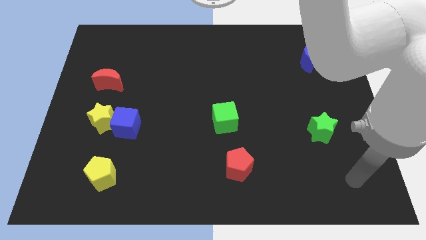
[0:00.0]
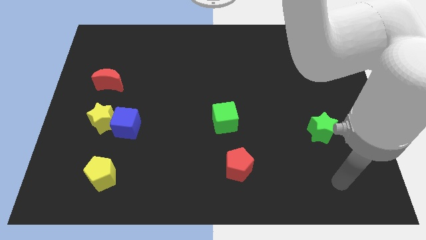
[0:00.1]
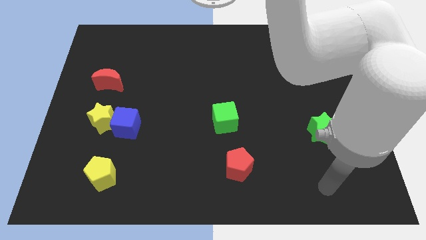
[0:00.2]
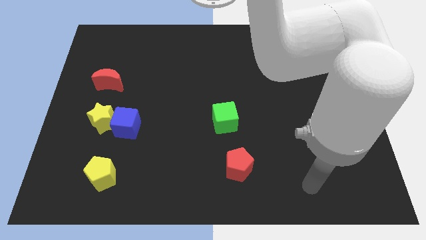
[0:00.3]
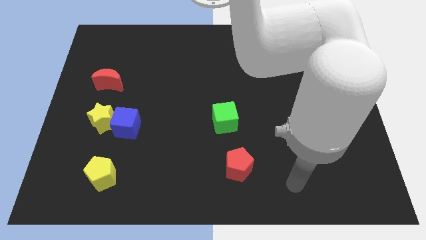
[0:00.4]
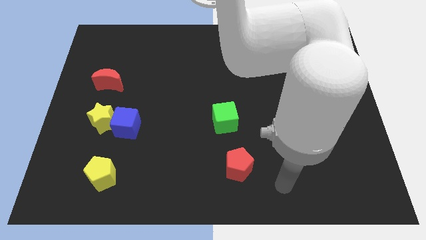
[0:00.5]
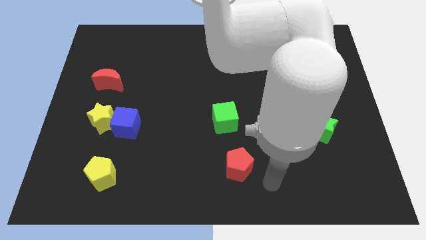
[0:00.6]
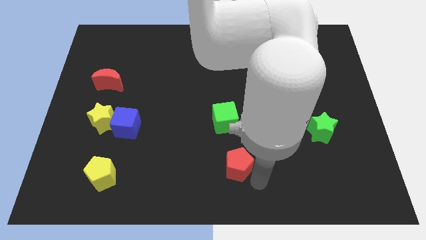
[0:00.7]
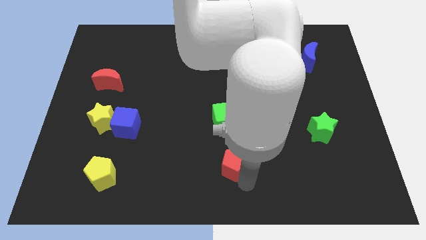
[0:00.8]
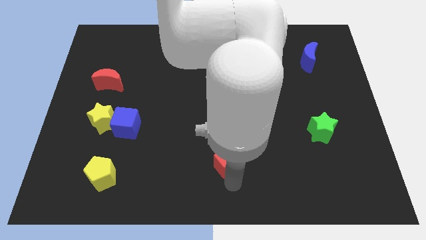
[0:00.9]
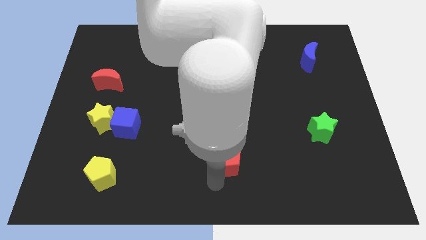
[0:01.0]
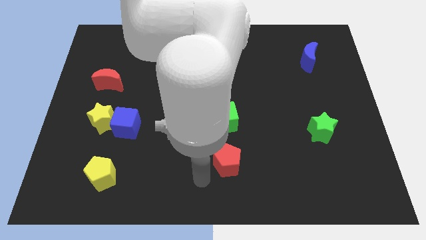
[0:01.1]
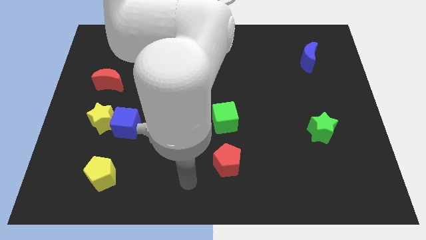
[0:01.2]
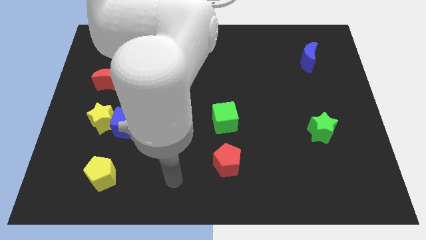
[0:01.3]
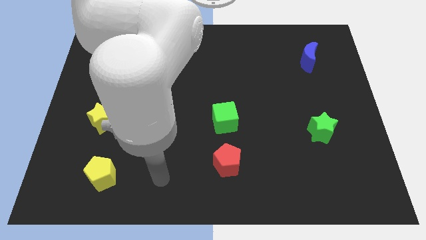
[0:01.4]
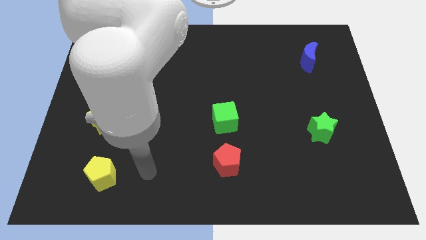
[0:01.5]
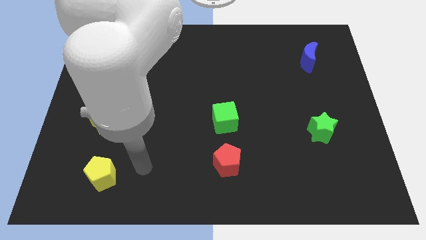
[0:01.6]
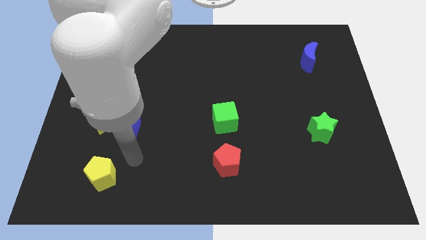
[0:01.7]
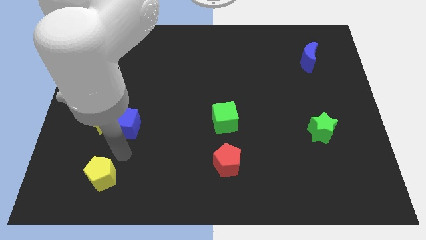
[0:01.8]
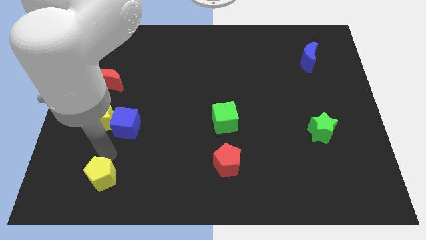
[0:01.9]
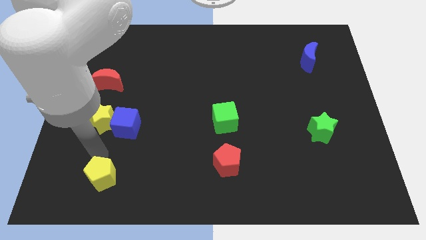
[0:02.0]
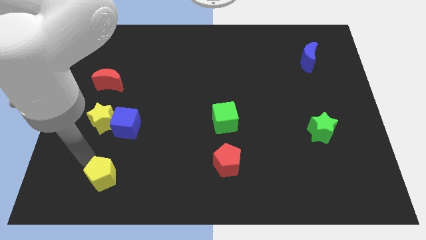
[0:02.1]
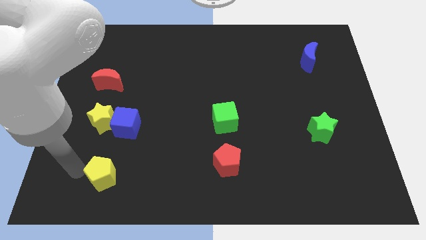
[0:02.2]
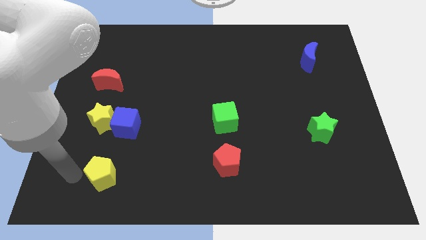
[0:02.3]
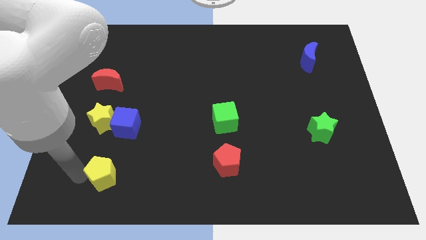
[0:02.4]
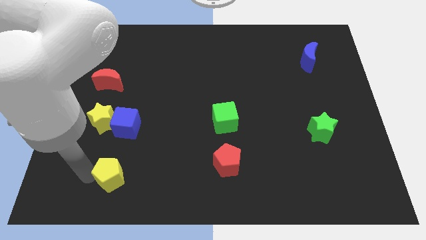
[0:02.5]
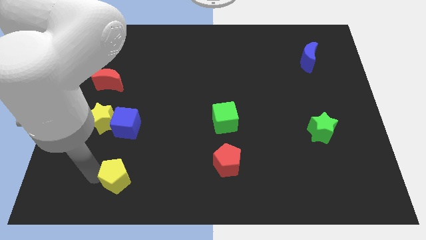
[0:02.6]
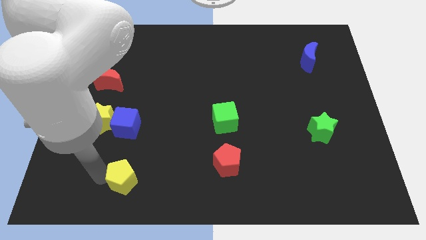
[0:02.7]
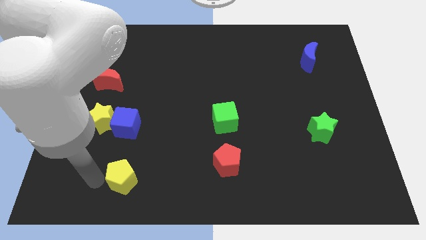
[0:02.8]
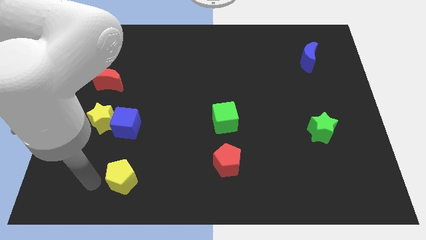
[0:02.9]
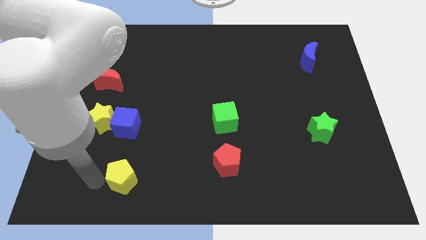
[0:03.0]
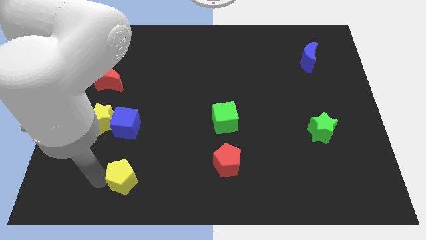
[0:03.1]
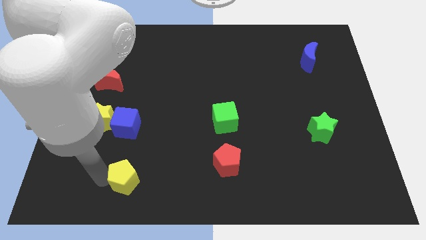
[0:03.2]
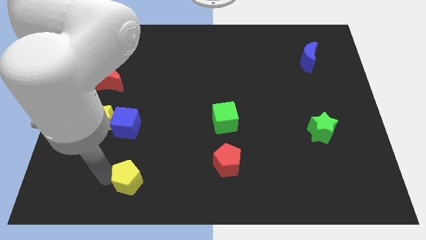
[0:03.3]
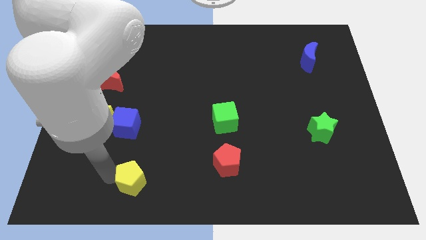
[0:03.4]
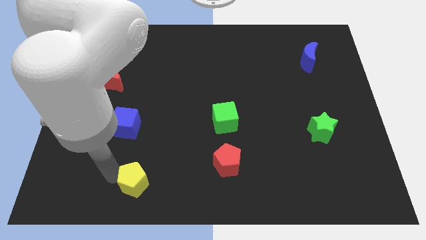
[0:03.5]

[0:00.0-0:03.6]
move the yellow pentagon to the right somewhat

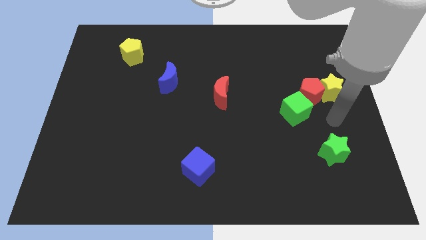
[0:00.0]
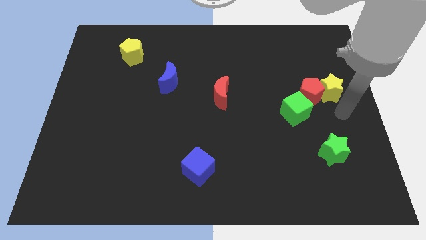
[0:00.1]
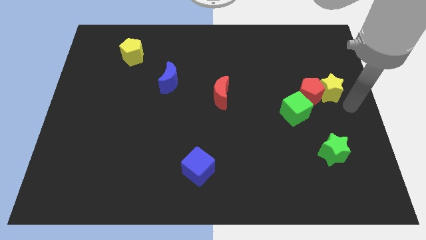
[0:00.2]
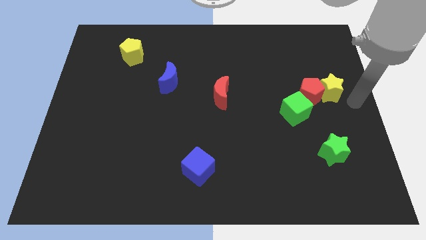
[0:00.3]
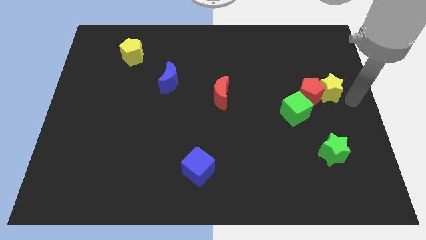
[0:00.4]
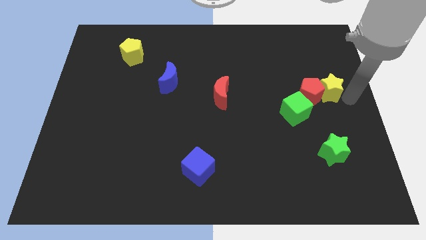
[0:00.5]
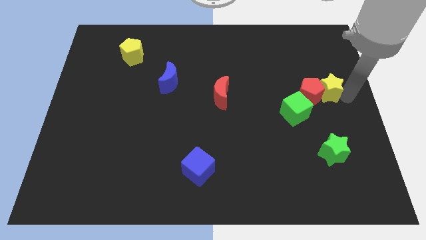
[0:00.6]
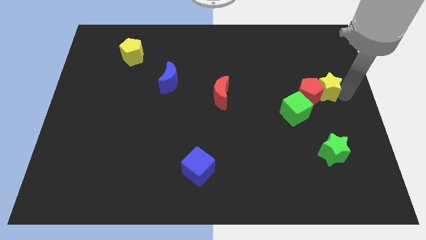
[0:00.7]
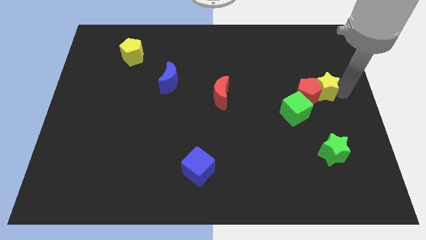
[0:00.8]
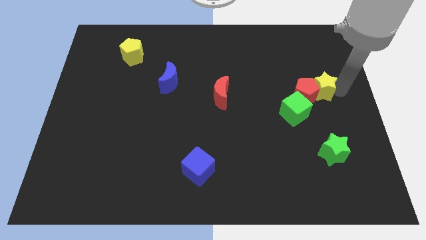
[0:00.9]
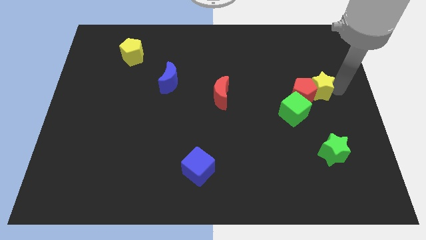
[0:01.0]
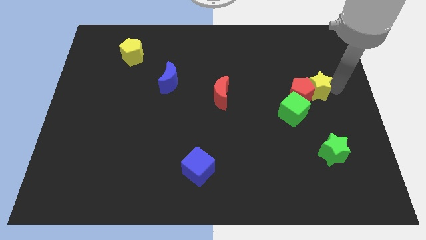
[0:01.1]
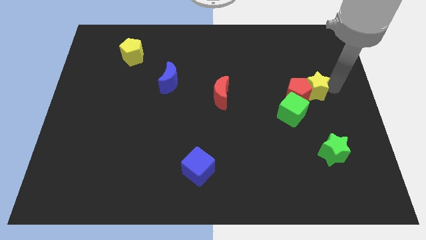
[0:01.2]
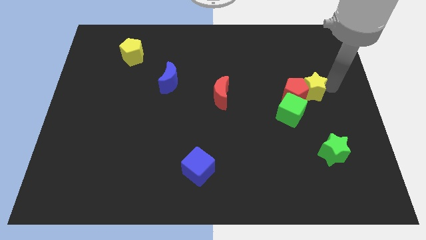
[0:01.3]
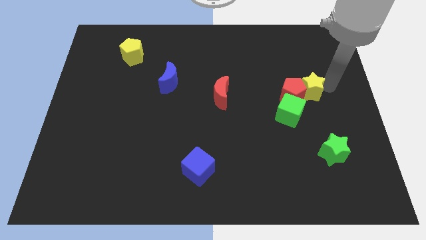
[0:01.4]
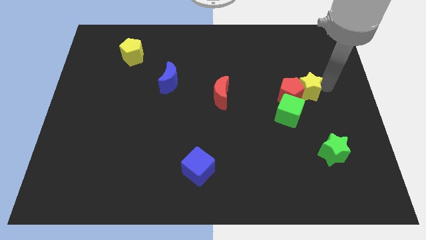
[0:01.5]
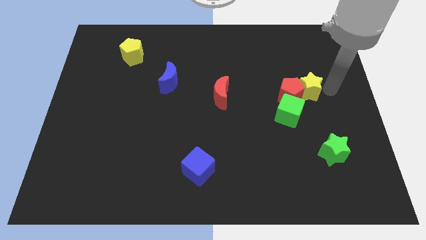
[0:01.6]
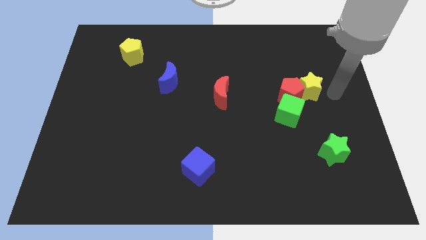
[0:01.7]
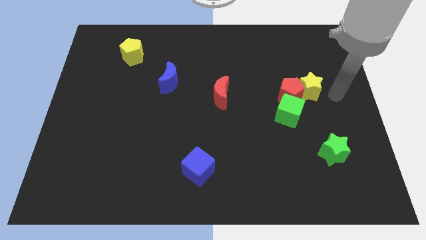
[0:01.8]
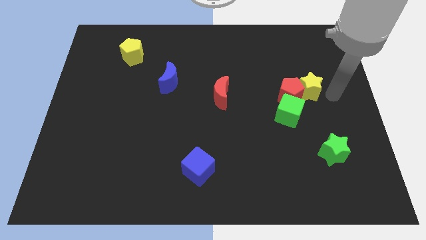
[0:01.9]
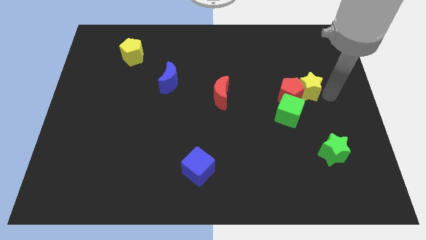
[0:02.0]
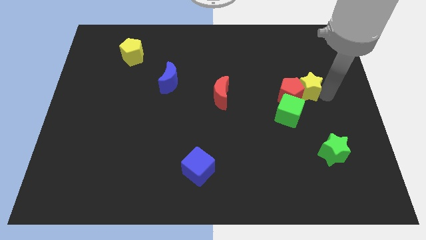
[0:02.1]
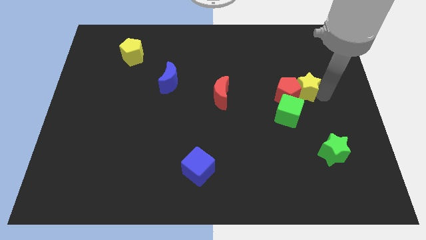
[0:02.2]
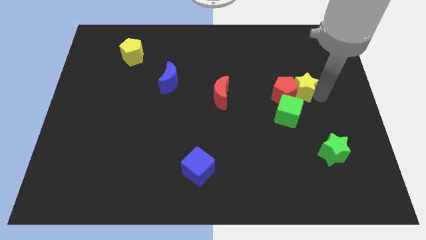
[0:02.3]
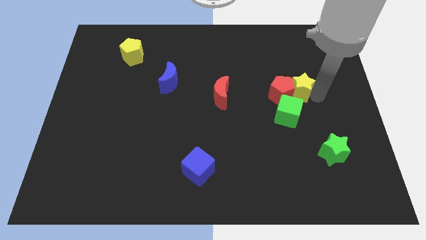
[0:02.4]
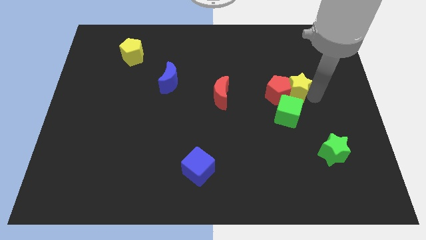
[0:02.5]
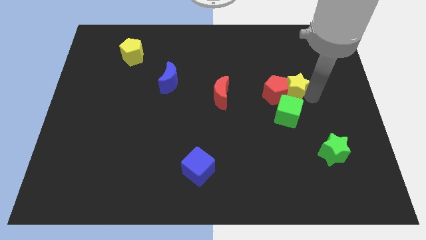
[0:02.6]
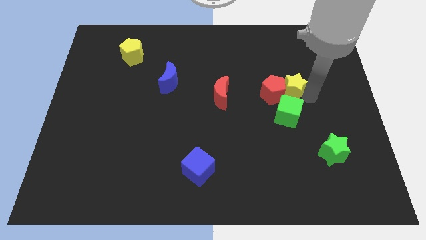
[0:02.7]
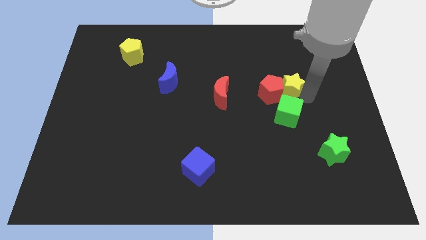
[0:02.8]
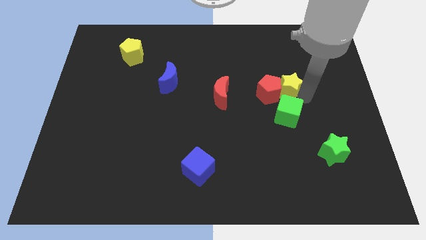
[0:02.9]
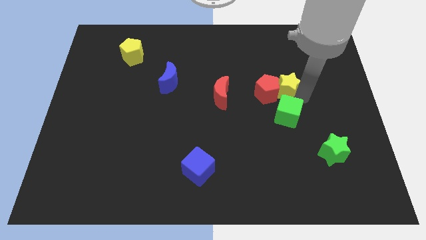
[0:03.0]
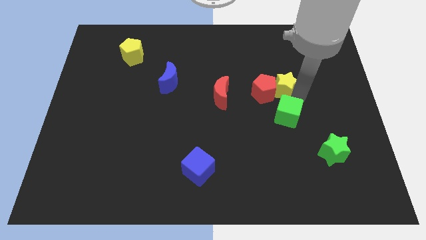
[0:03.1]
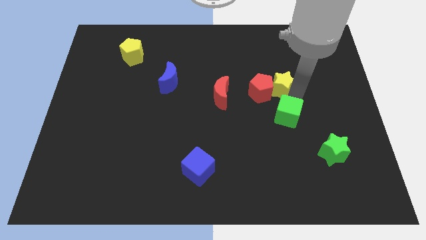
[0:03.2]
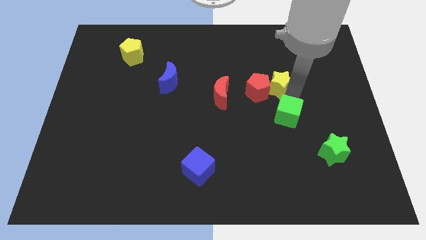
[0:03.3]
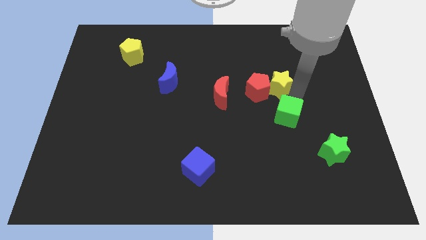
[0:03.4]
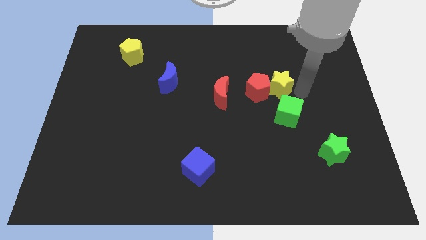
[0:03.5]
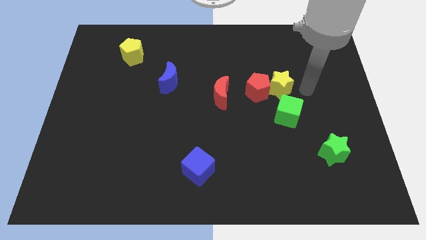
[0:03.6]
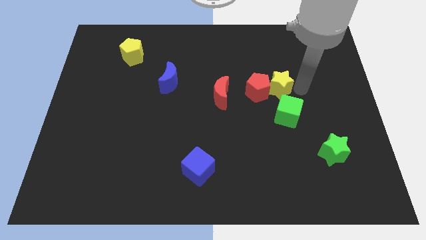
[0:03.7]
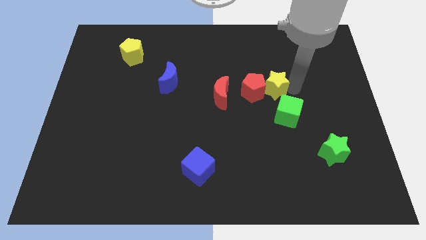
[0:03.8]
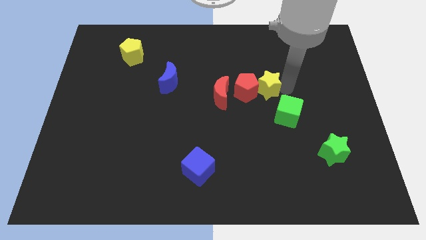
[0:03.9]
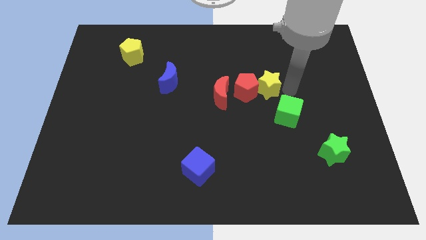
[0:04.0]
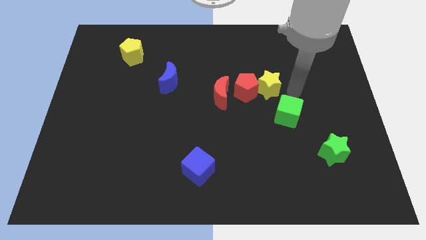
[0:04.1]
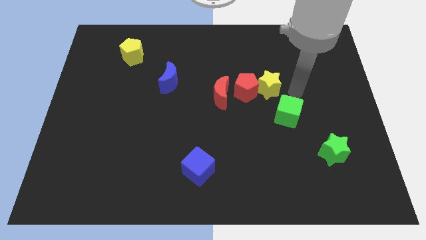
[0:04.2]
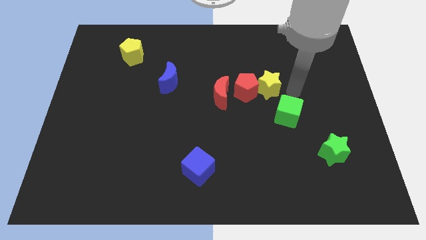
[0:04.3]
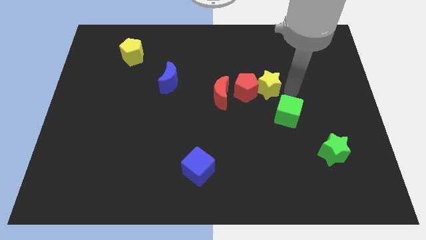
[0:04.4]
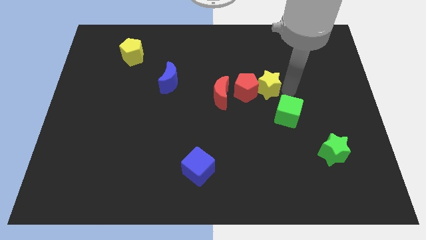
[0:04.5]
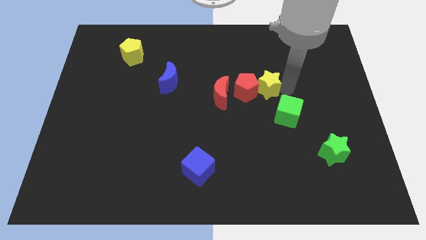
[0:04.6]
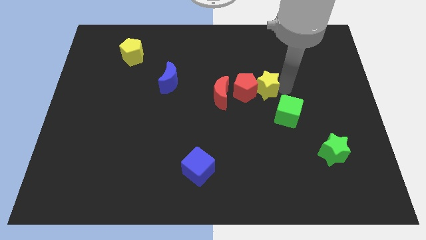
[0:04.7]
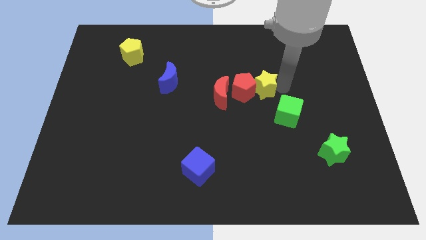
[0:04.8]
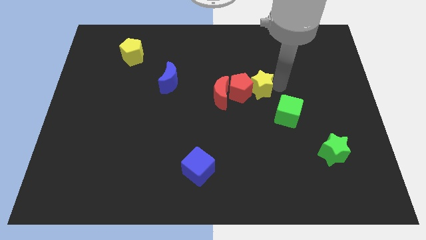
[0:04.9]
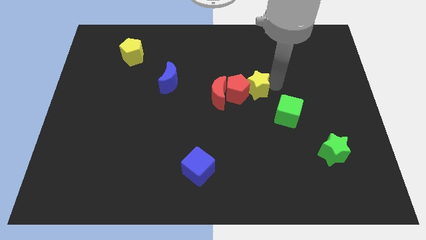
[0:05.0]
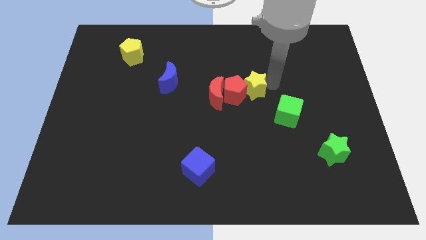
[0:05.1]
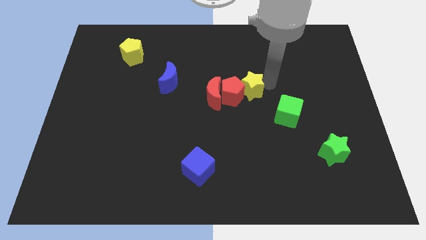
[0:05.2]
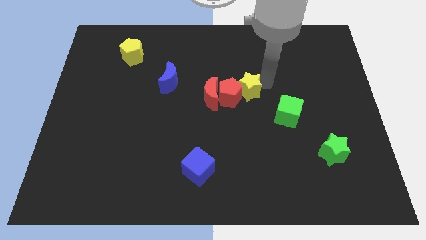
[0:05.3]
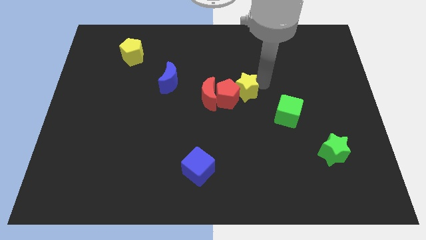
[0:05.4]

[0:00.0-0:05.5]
move the yellow star left
